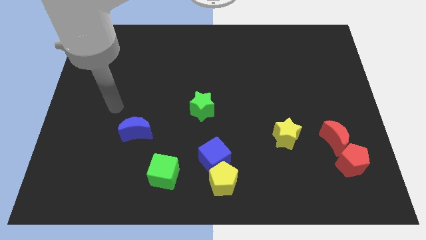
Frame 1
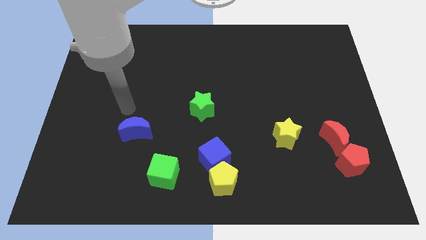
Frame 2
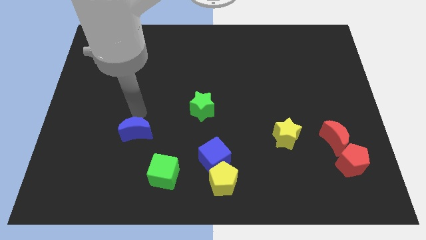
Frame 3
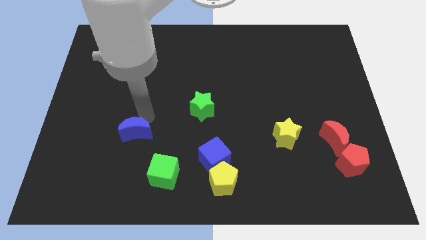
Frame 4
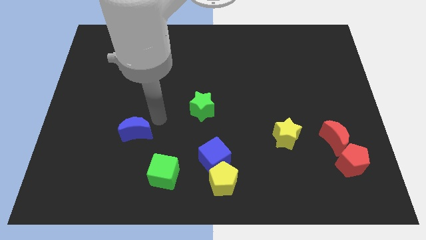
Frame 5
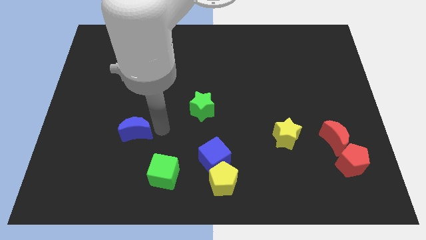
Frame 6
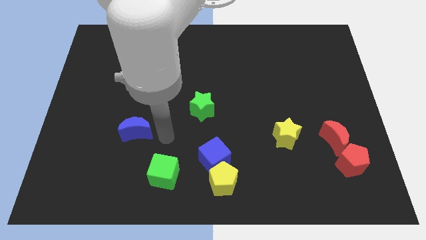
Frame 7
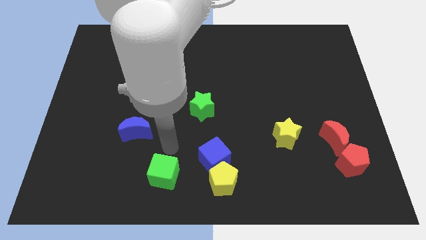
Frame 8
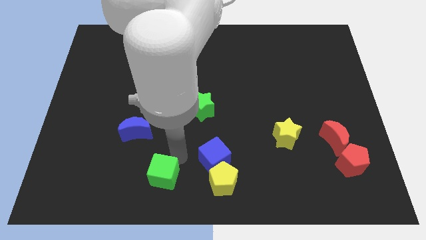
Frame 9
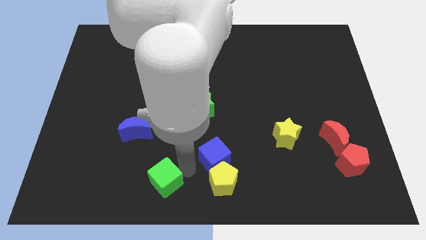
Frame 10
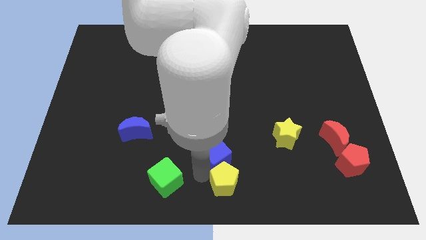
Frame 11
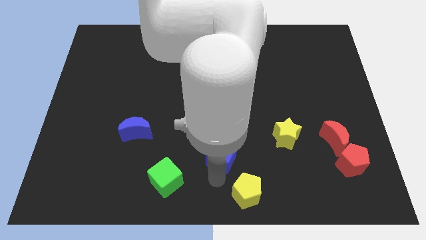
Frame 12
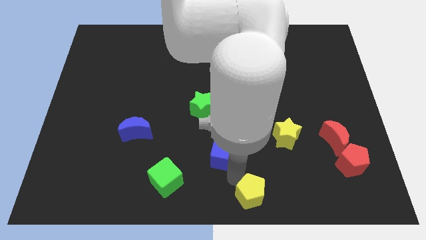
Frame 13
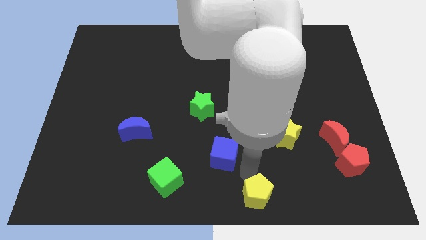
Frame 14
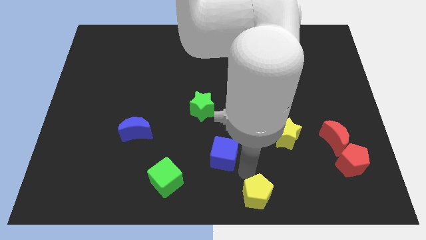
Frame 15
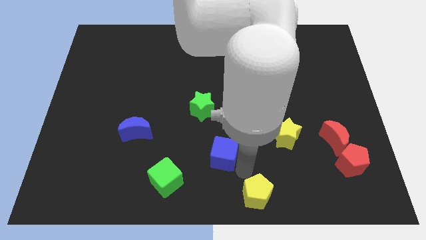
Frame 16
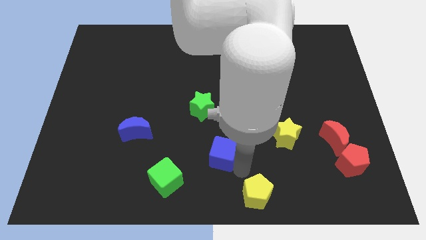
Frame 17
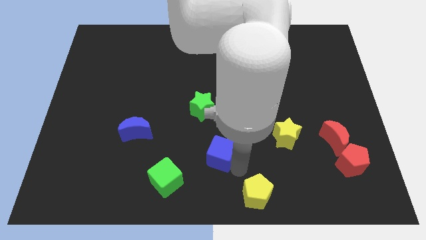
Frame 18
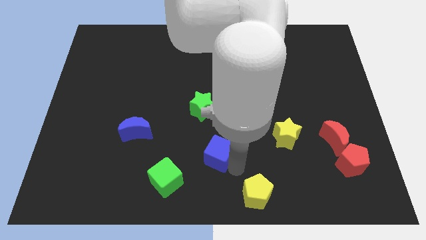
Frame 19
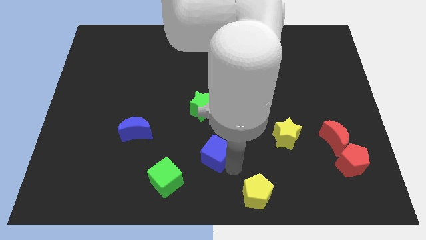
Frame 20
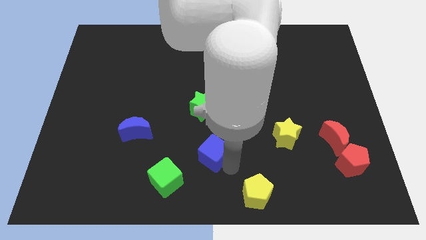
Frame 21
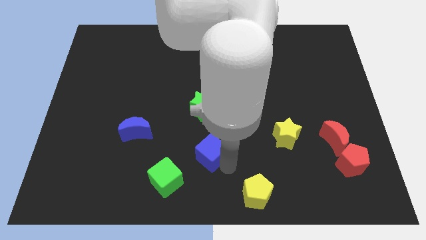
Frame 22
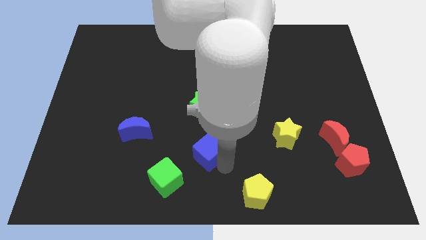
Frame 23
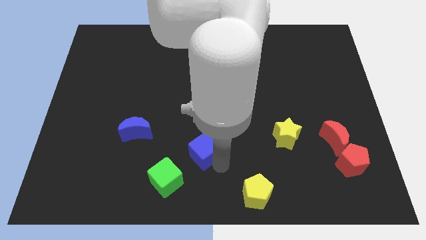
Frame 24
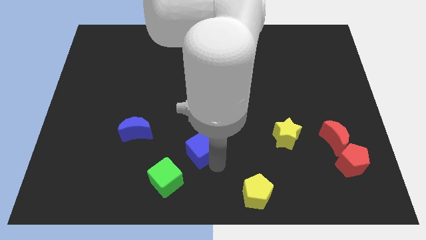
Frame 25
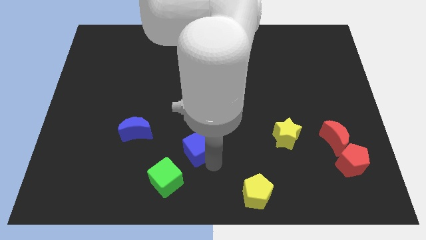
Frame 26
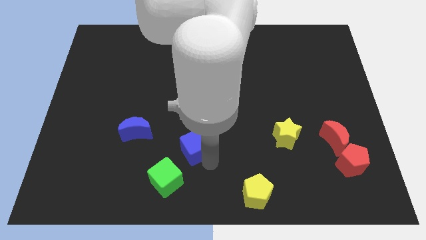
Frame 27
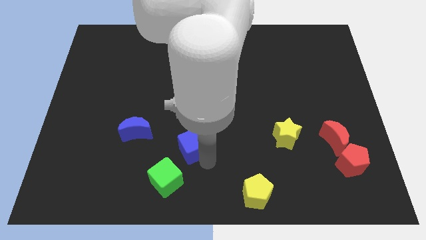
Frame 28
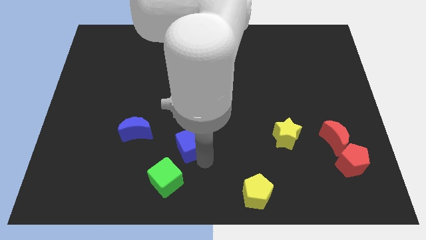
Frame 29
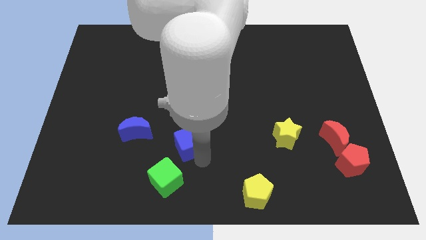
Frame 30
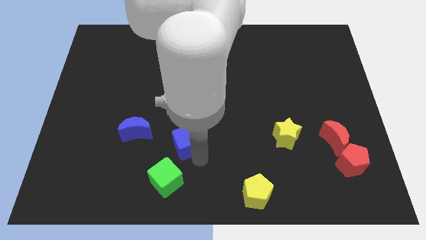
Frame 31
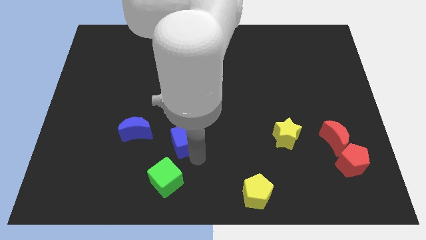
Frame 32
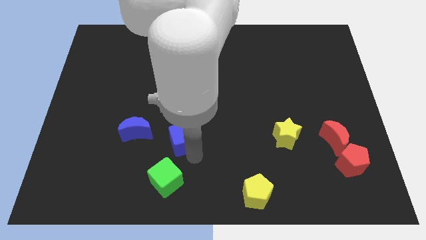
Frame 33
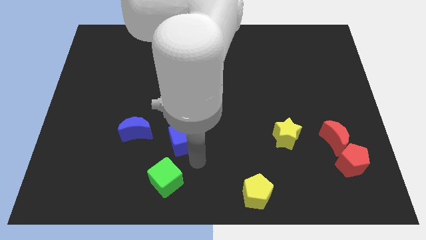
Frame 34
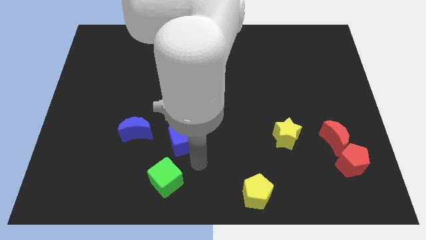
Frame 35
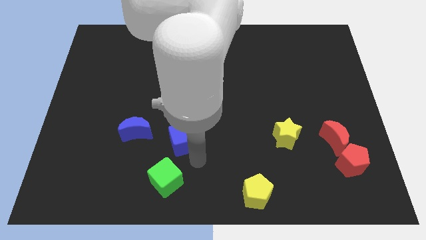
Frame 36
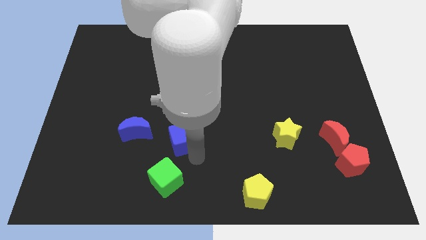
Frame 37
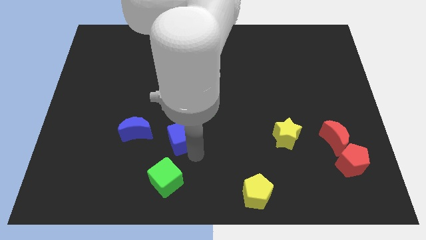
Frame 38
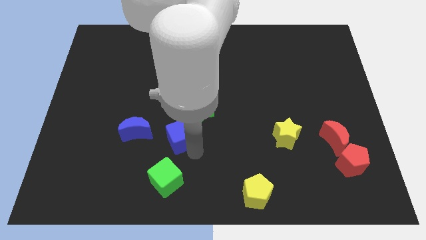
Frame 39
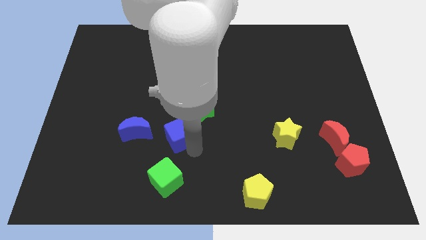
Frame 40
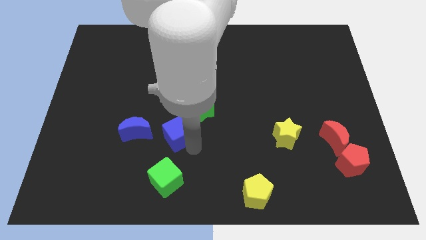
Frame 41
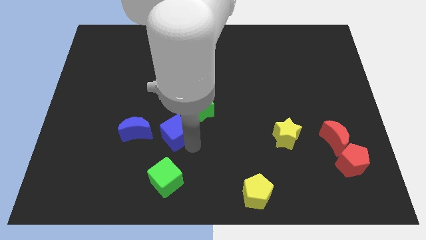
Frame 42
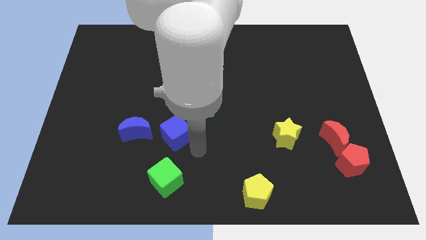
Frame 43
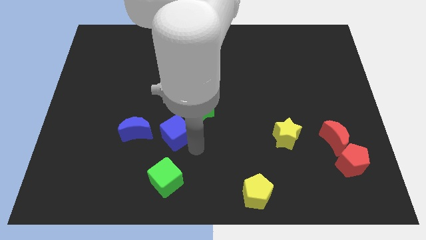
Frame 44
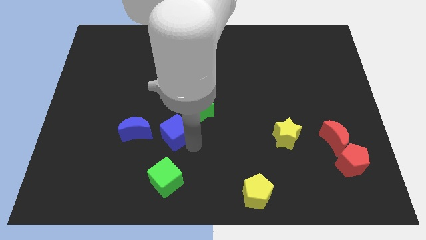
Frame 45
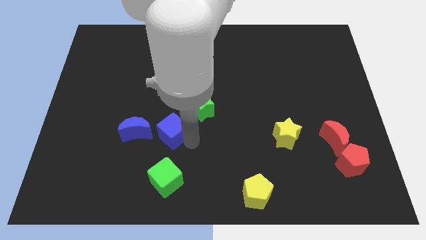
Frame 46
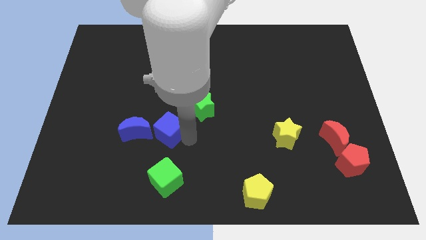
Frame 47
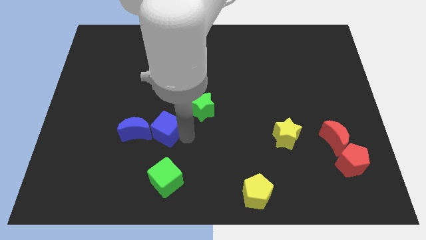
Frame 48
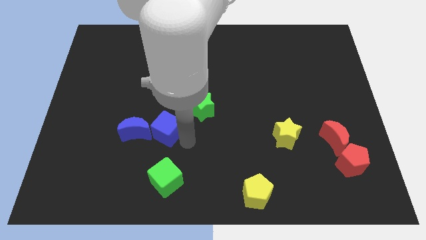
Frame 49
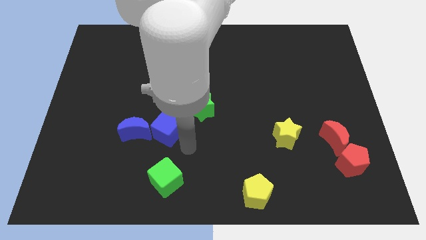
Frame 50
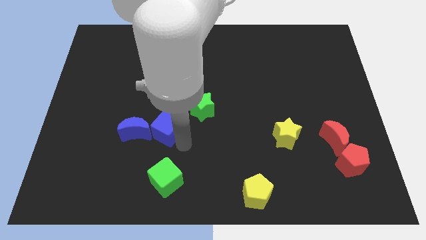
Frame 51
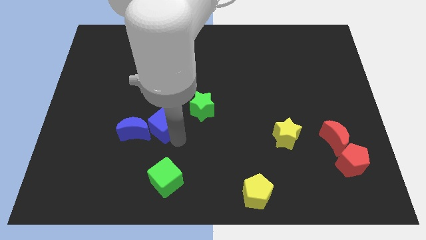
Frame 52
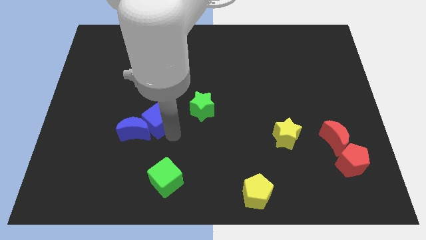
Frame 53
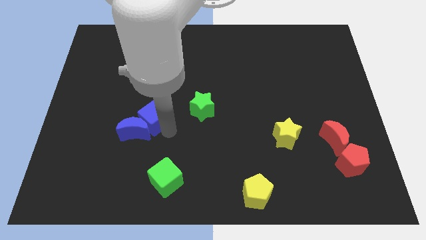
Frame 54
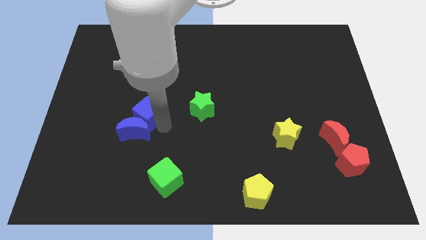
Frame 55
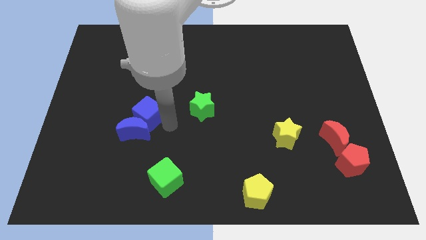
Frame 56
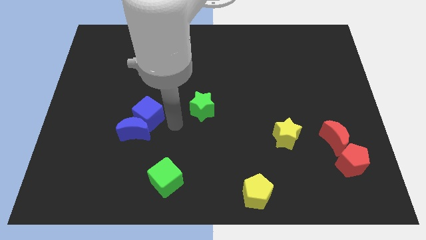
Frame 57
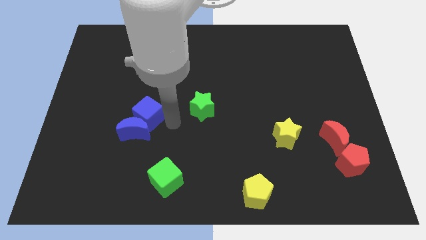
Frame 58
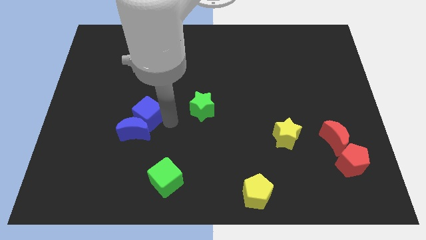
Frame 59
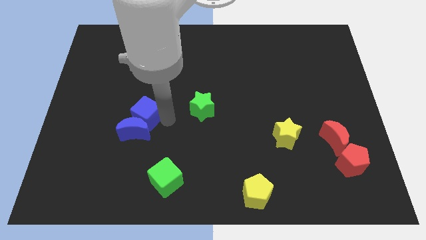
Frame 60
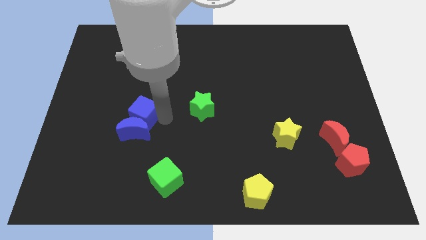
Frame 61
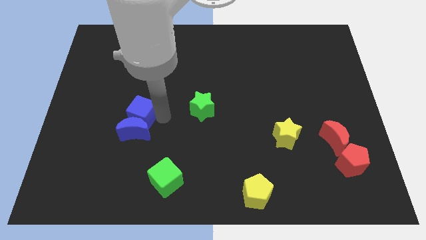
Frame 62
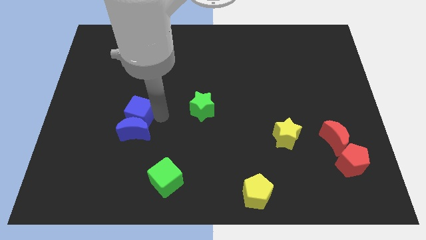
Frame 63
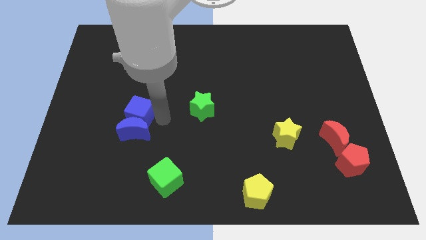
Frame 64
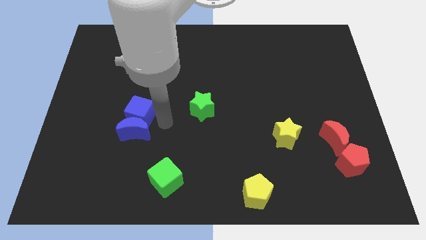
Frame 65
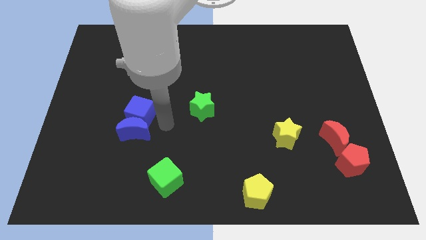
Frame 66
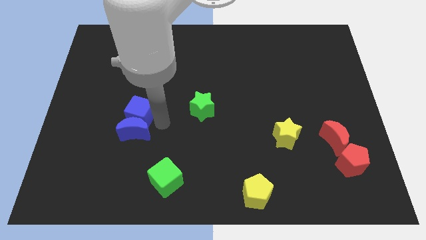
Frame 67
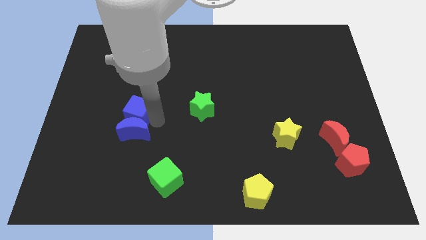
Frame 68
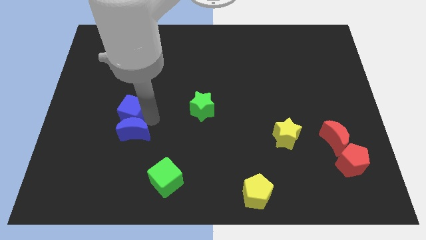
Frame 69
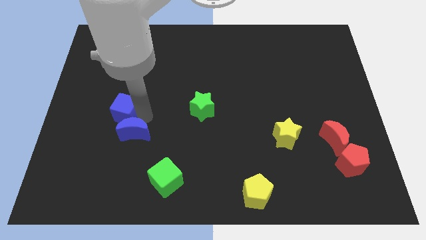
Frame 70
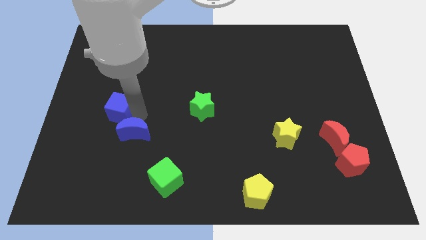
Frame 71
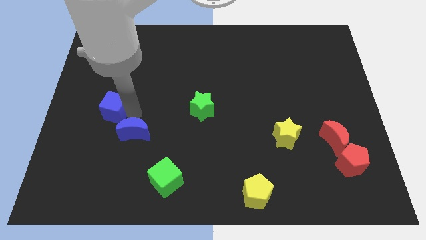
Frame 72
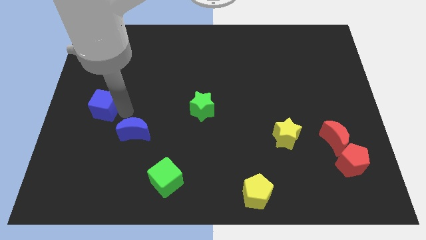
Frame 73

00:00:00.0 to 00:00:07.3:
slide the blue cube to the left side of the board
